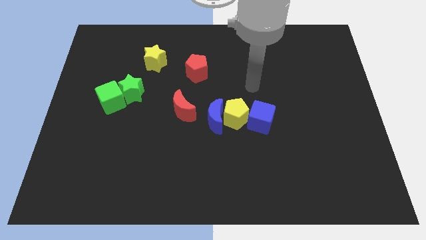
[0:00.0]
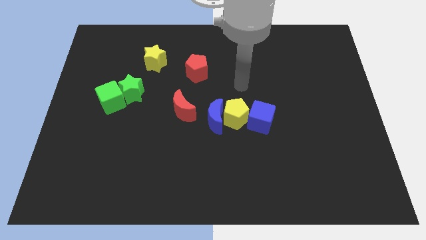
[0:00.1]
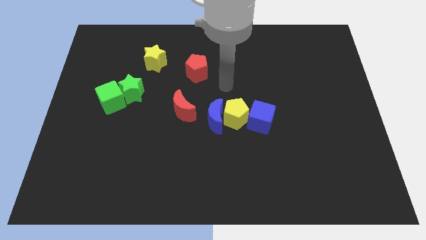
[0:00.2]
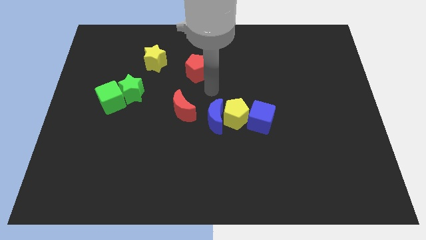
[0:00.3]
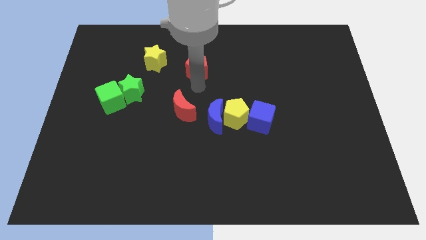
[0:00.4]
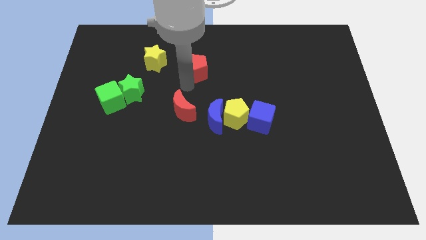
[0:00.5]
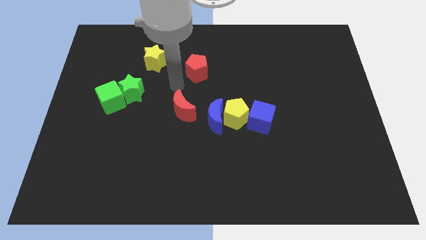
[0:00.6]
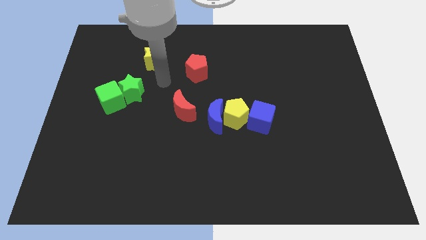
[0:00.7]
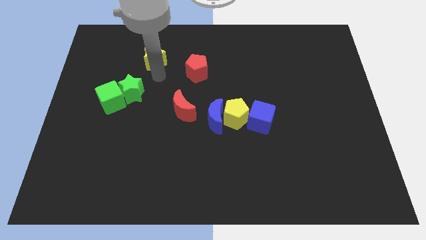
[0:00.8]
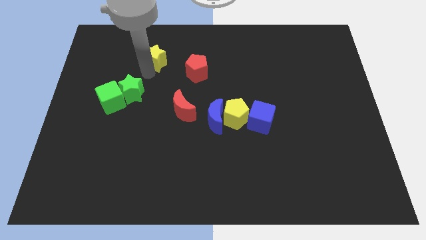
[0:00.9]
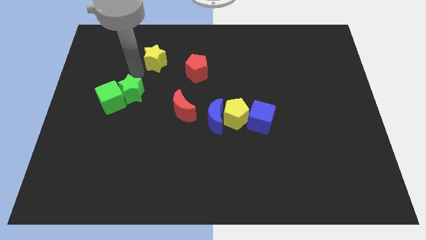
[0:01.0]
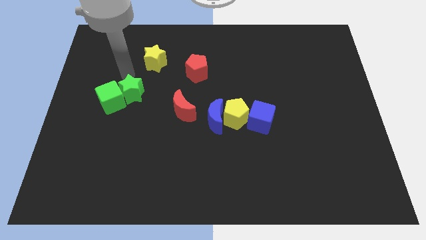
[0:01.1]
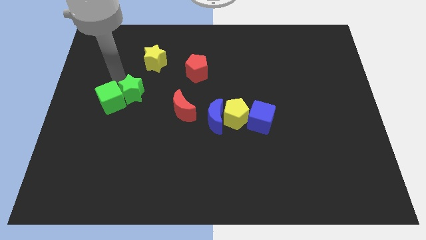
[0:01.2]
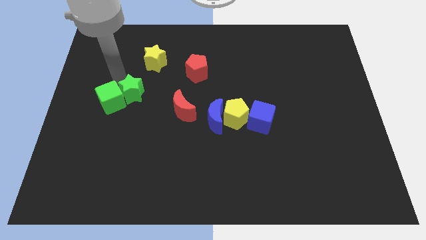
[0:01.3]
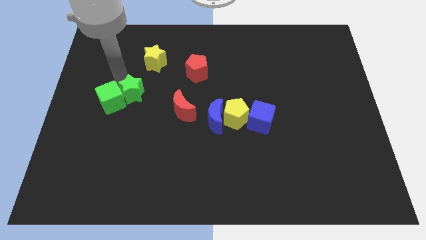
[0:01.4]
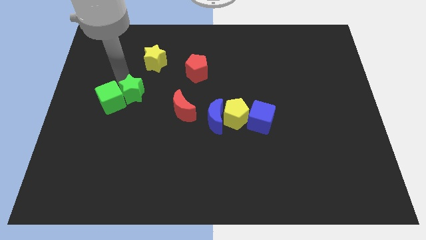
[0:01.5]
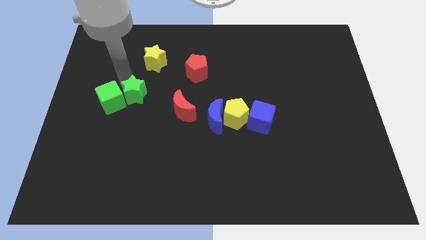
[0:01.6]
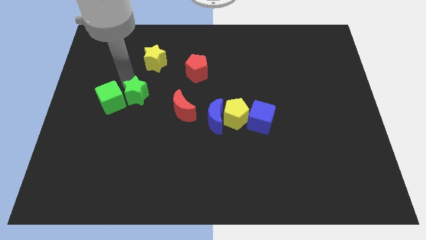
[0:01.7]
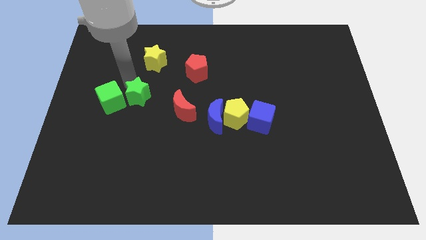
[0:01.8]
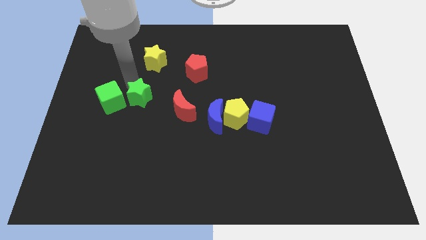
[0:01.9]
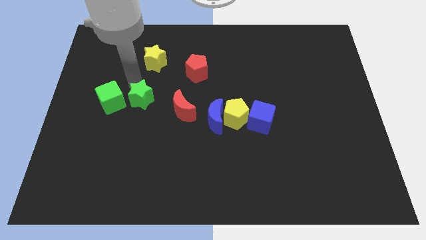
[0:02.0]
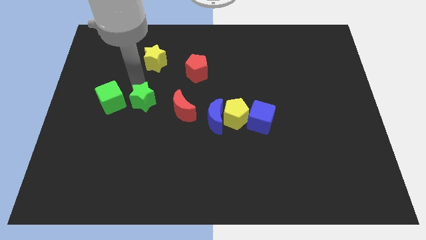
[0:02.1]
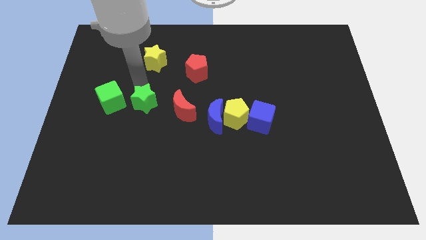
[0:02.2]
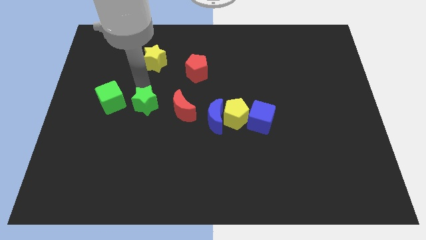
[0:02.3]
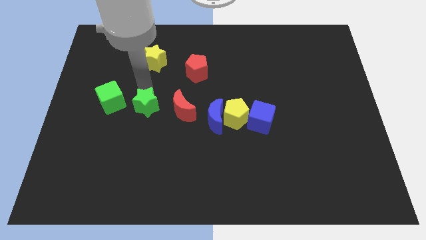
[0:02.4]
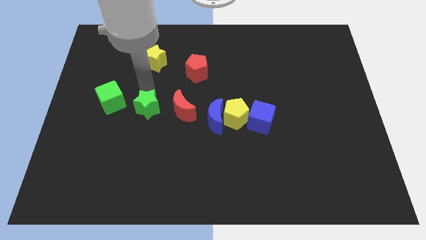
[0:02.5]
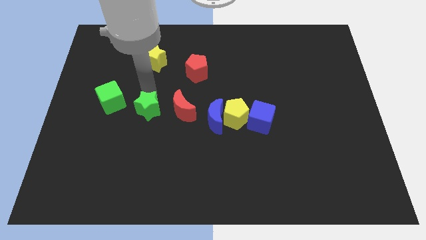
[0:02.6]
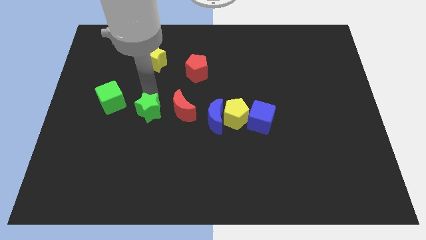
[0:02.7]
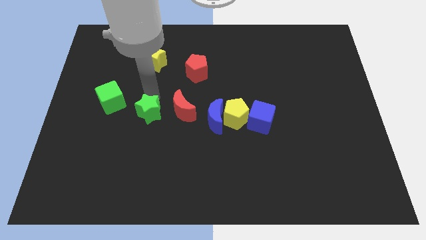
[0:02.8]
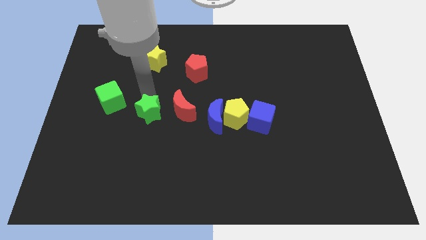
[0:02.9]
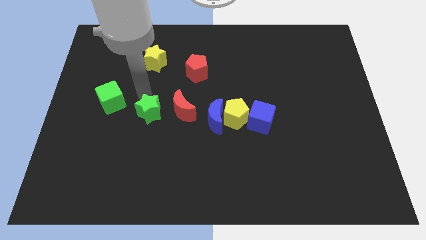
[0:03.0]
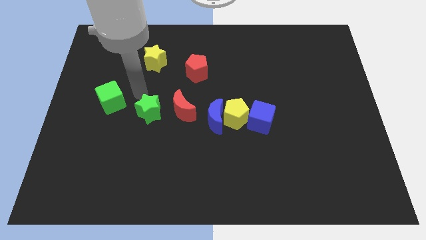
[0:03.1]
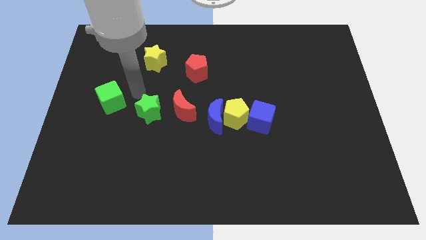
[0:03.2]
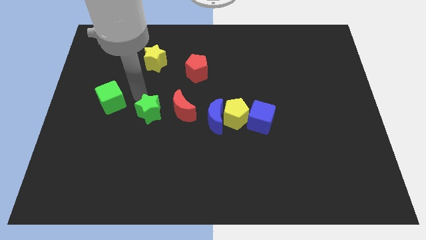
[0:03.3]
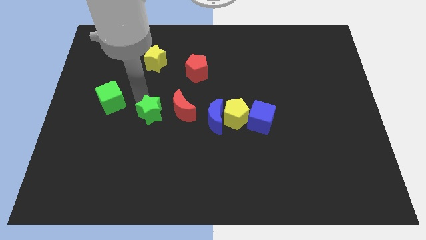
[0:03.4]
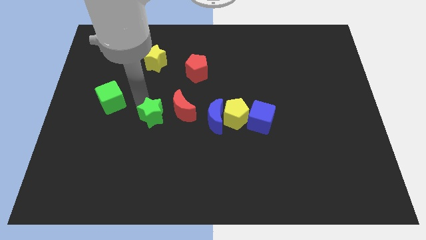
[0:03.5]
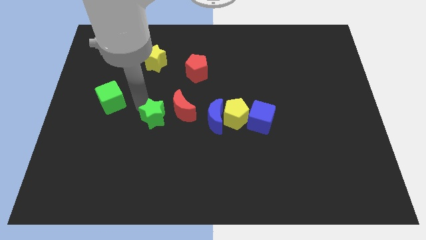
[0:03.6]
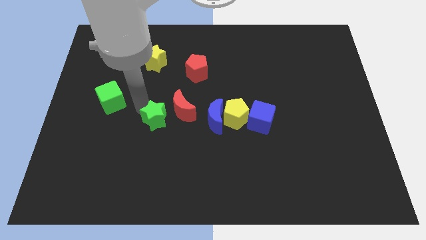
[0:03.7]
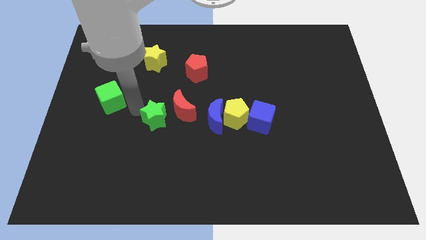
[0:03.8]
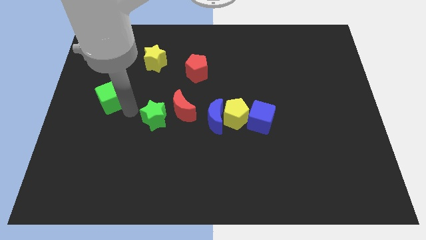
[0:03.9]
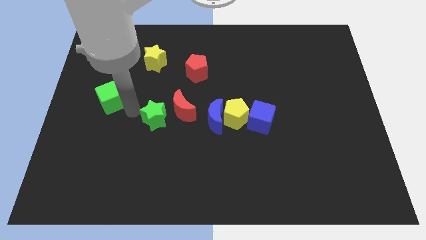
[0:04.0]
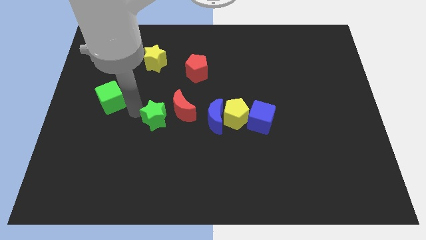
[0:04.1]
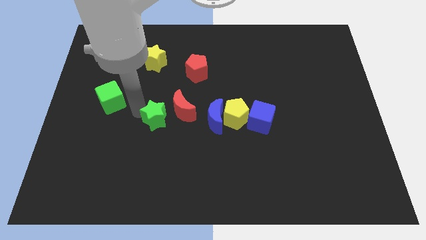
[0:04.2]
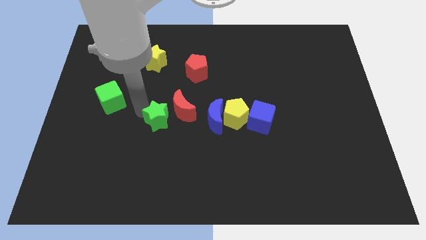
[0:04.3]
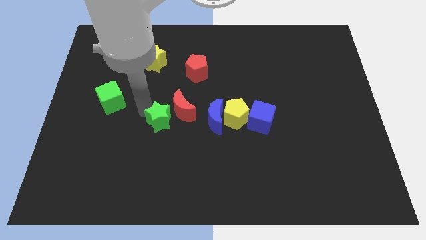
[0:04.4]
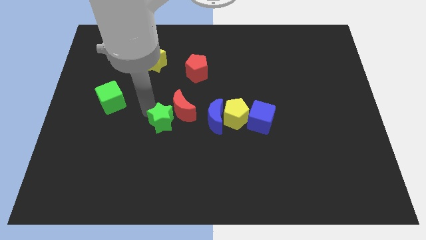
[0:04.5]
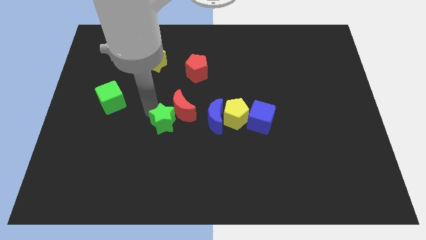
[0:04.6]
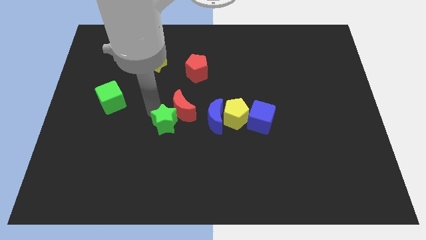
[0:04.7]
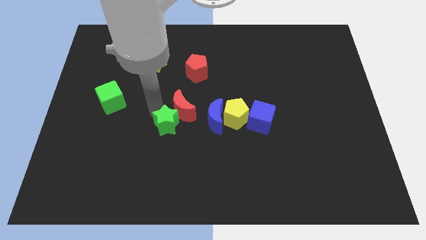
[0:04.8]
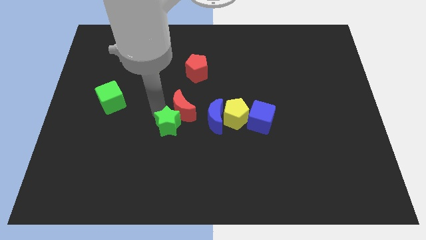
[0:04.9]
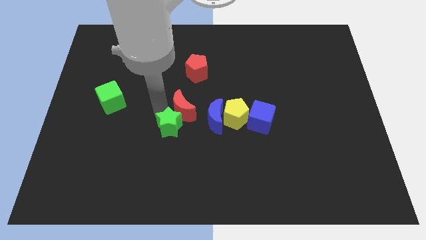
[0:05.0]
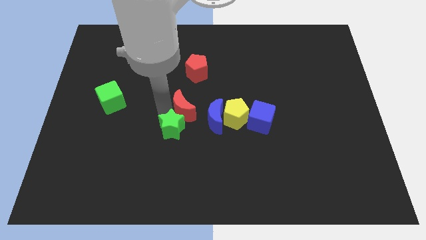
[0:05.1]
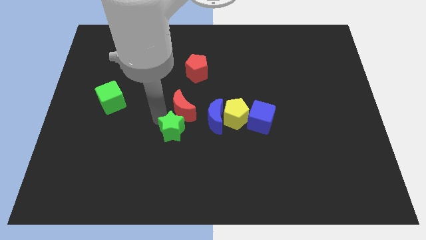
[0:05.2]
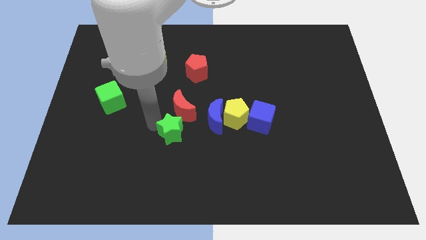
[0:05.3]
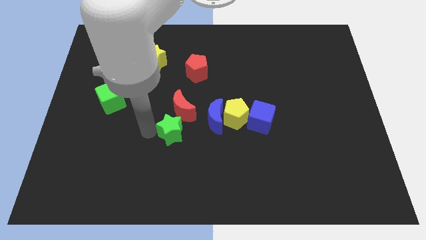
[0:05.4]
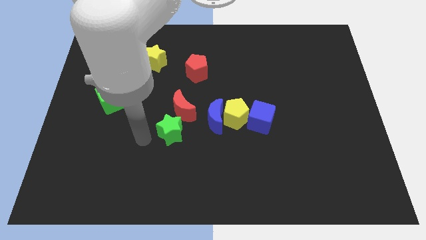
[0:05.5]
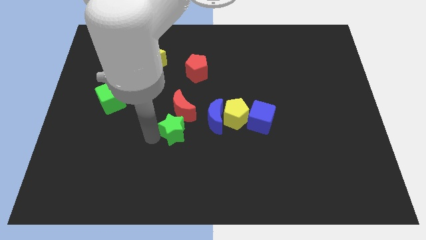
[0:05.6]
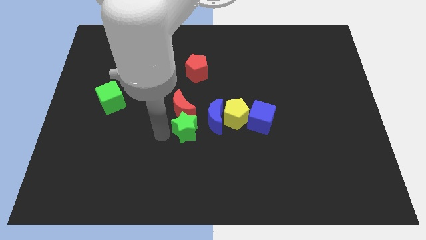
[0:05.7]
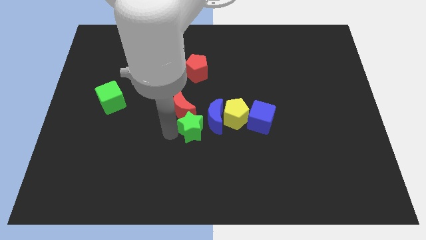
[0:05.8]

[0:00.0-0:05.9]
put the green star towards the blue moon

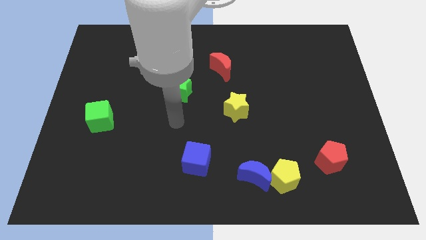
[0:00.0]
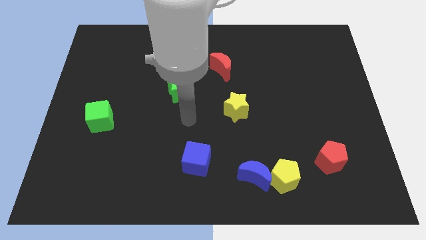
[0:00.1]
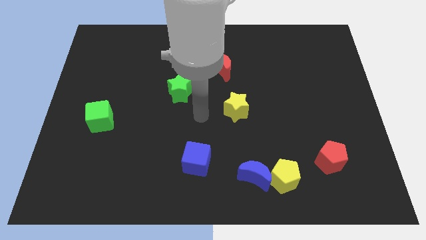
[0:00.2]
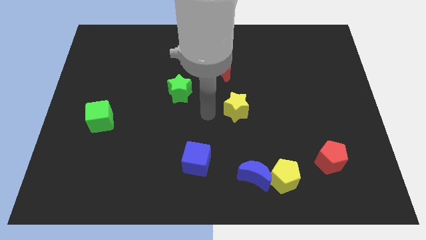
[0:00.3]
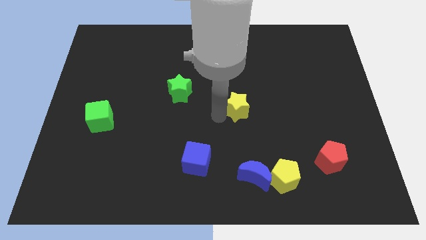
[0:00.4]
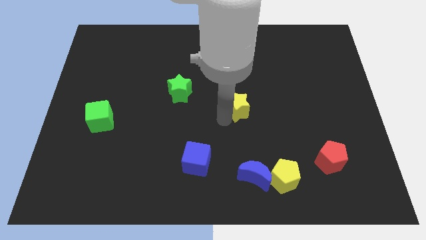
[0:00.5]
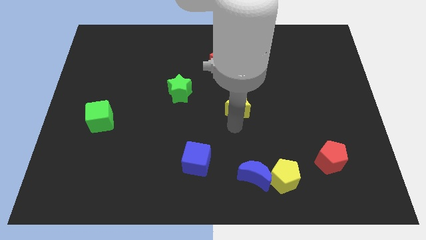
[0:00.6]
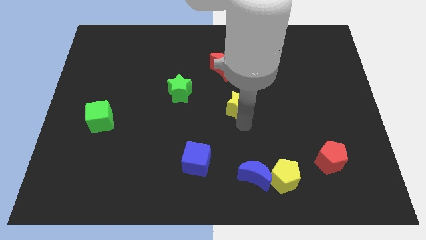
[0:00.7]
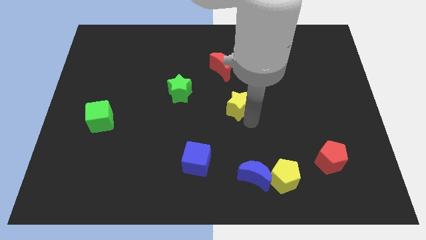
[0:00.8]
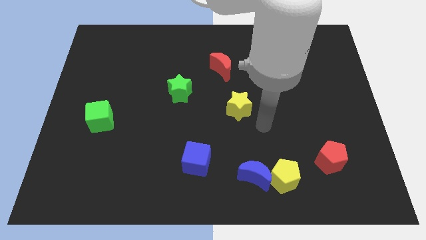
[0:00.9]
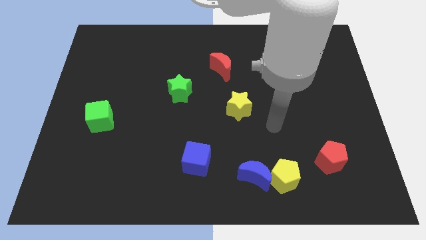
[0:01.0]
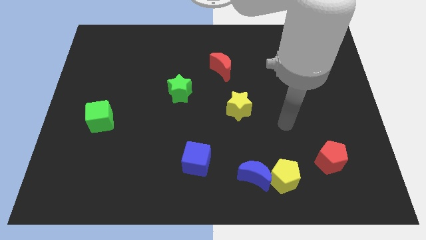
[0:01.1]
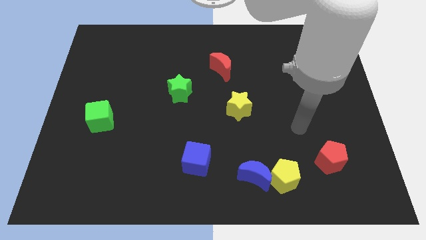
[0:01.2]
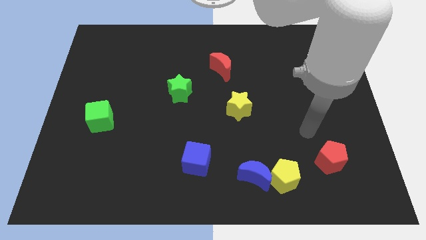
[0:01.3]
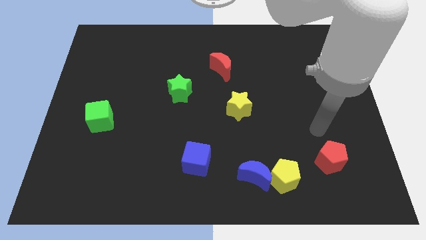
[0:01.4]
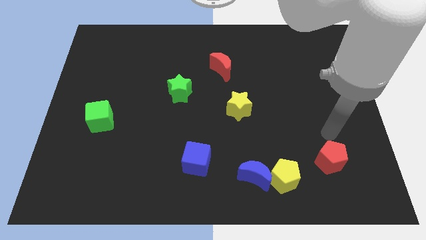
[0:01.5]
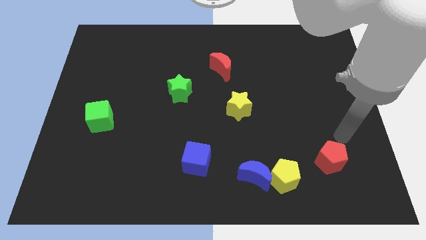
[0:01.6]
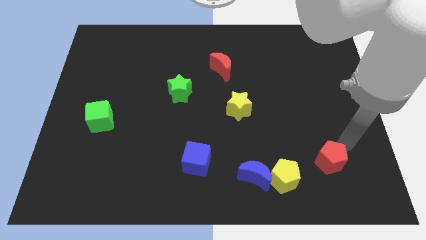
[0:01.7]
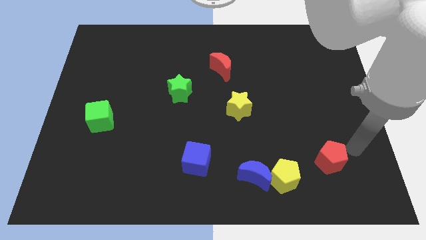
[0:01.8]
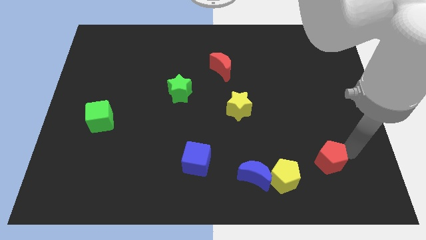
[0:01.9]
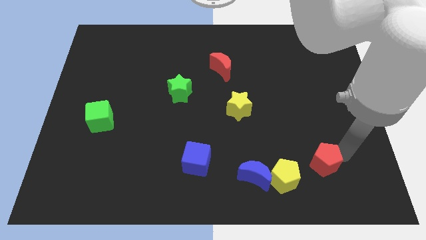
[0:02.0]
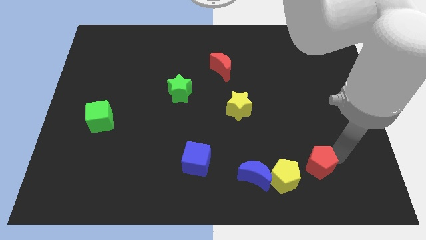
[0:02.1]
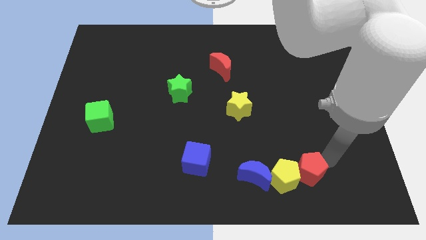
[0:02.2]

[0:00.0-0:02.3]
move the red pentagon next to the yellow pentagon

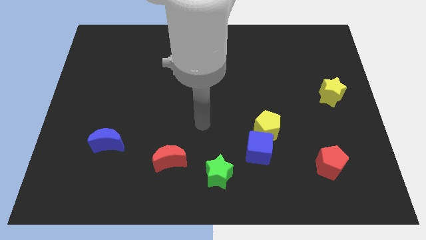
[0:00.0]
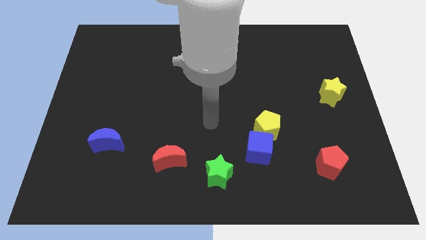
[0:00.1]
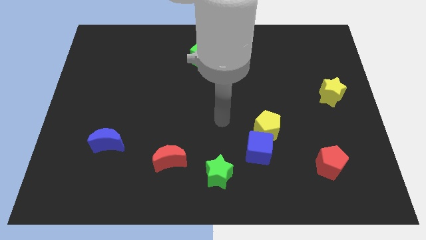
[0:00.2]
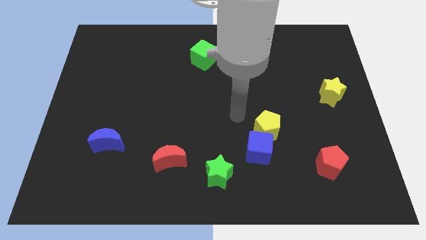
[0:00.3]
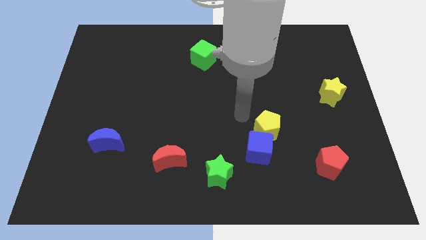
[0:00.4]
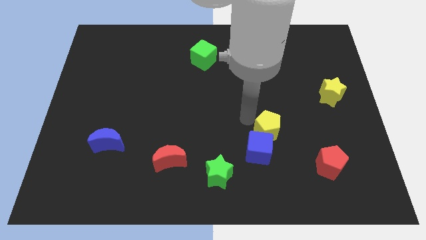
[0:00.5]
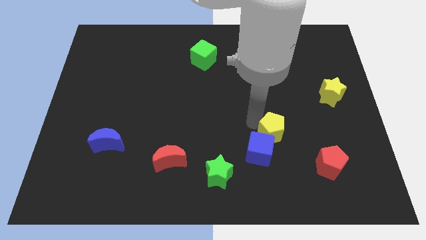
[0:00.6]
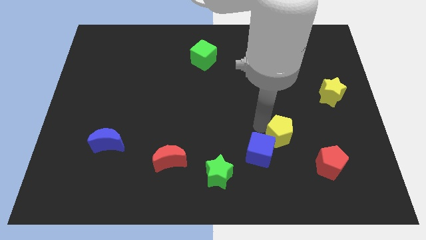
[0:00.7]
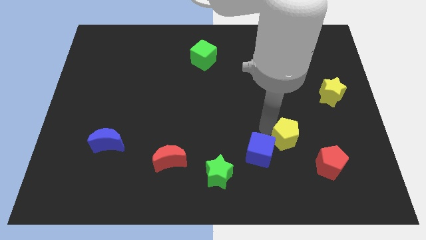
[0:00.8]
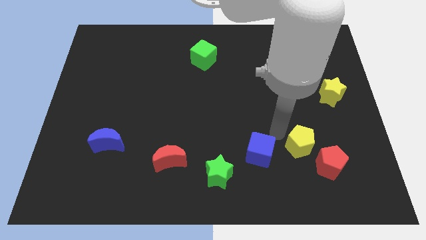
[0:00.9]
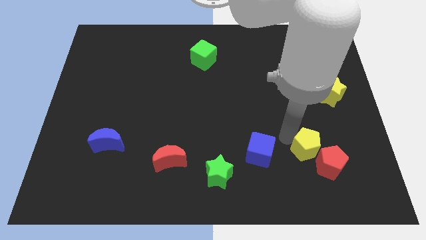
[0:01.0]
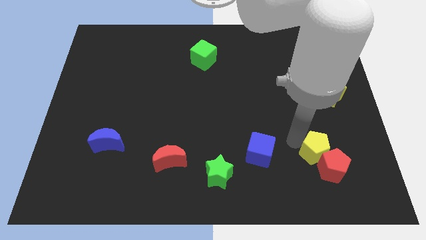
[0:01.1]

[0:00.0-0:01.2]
push the yellow pentagon towards the red pentagon
